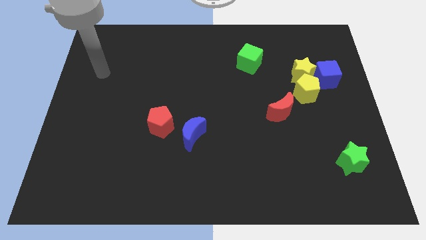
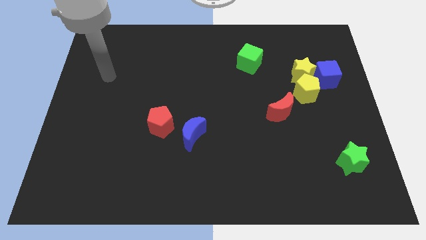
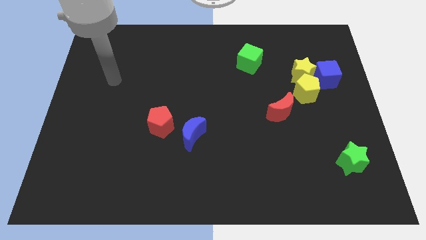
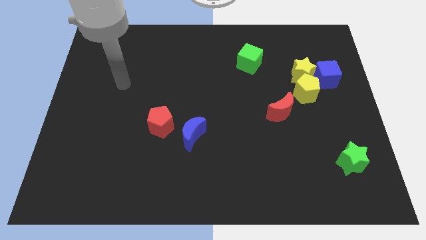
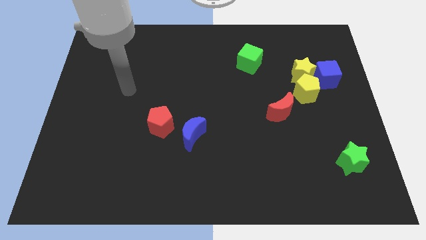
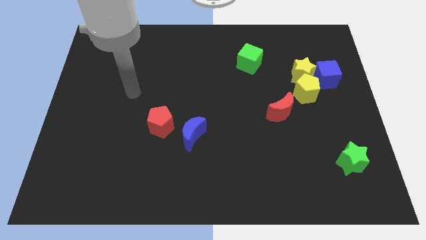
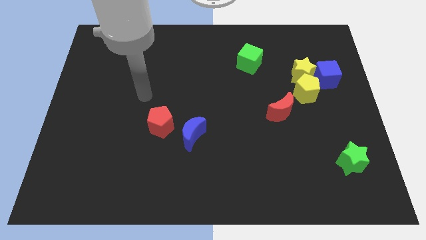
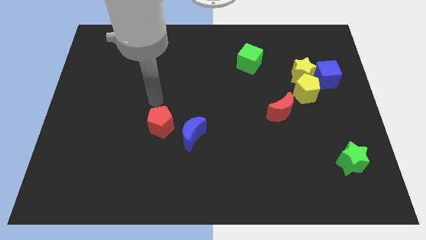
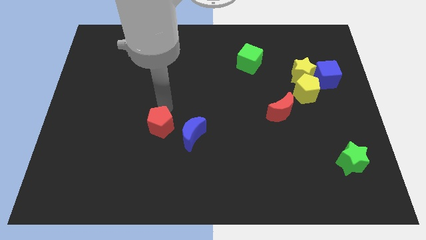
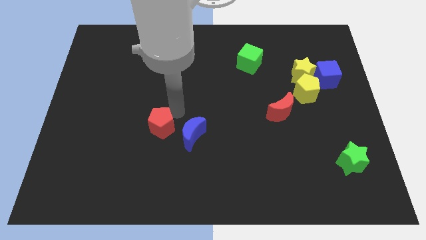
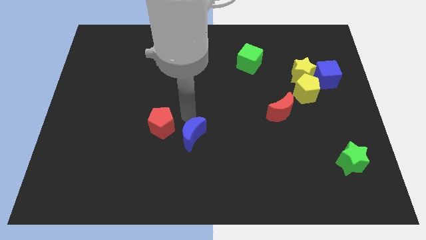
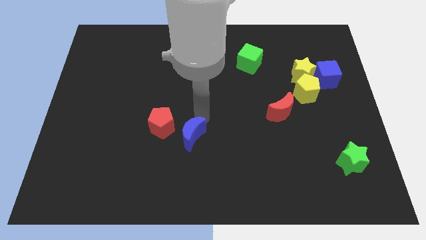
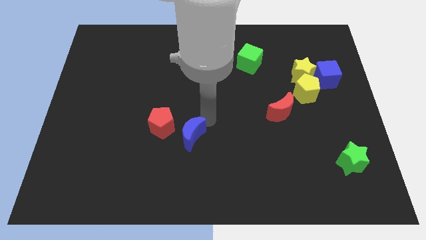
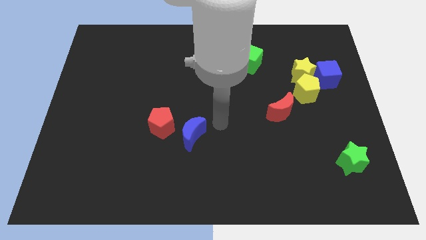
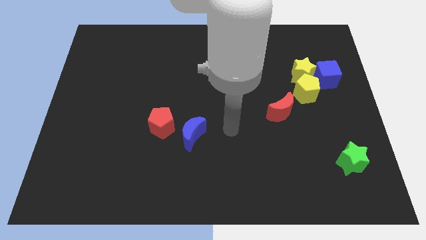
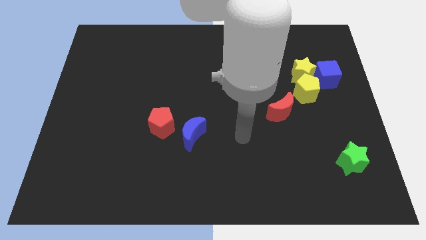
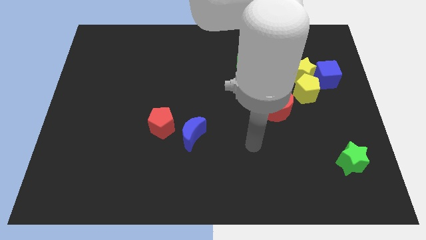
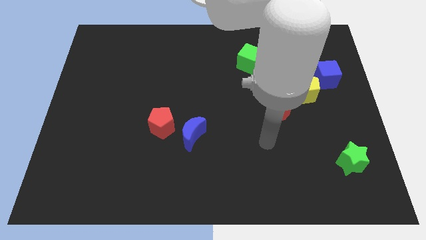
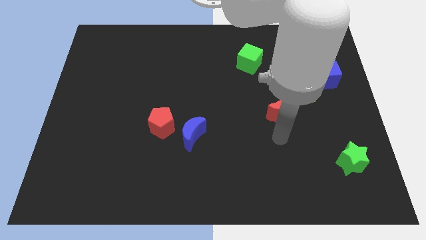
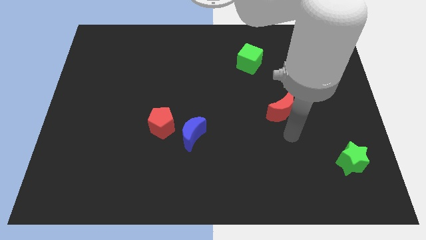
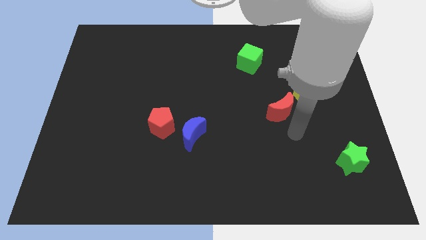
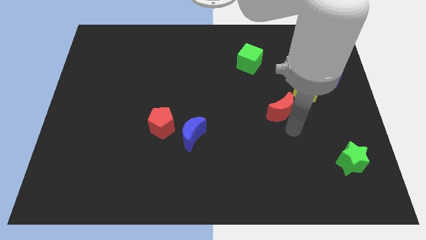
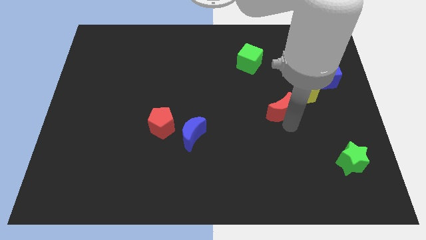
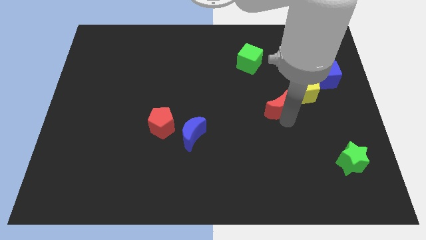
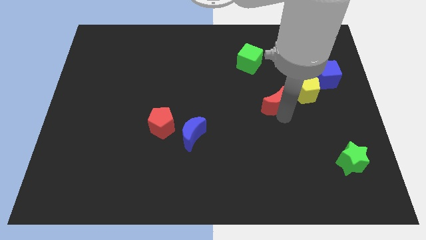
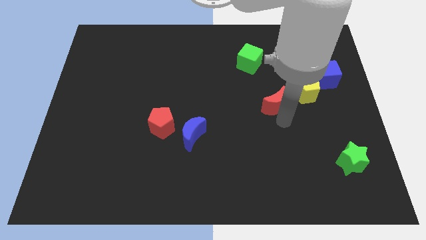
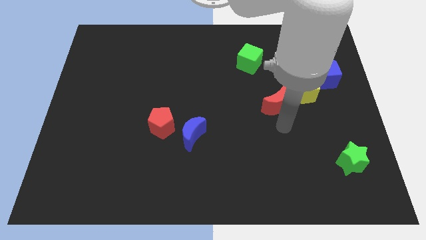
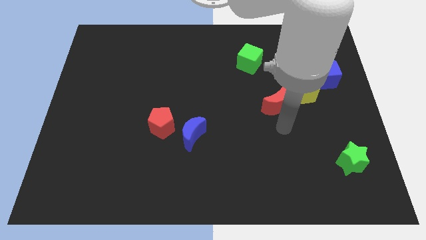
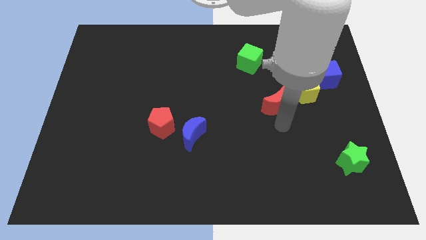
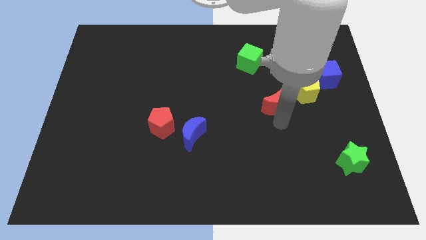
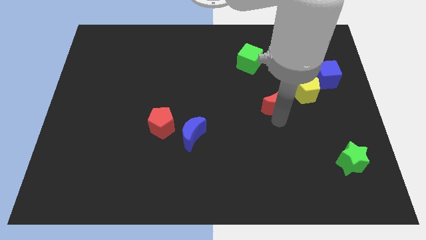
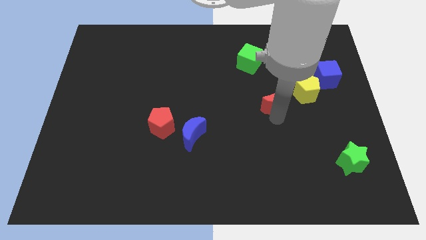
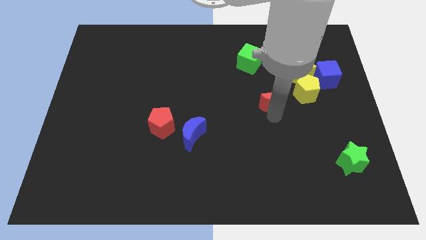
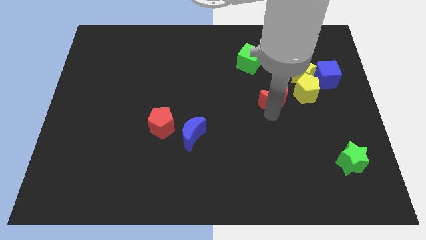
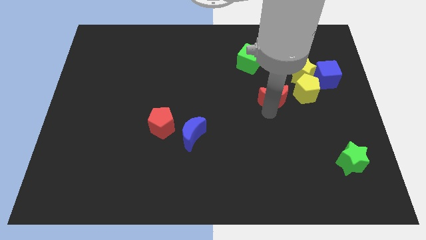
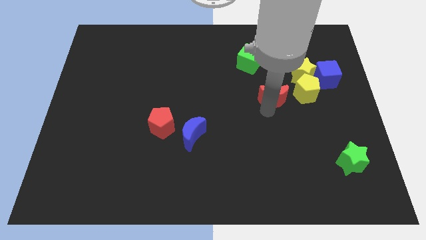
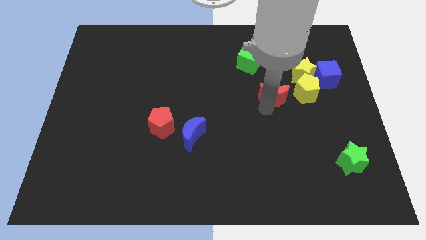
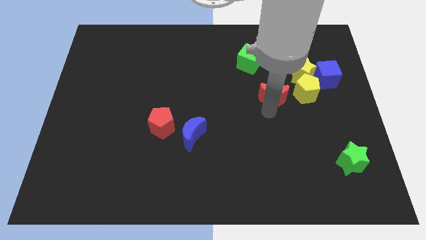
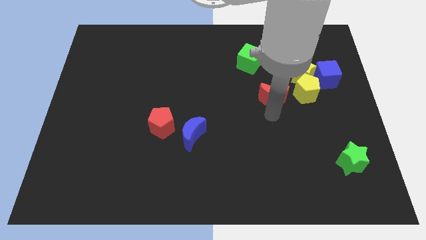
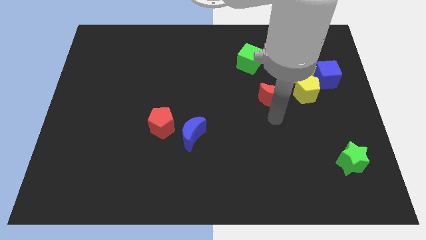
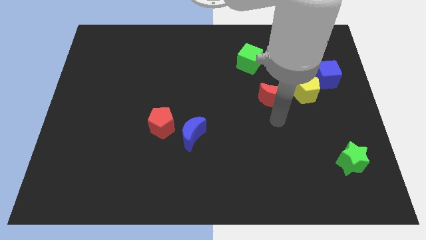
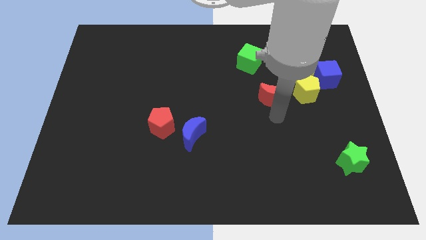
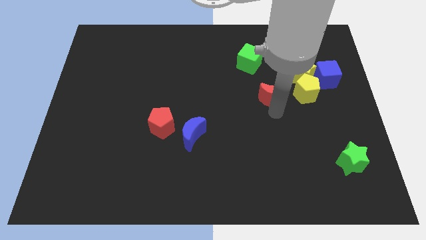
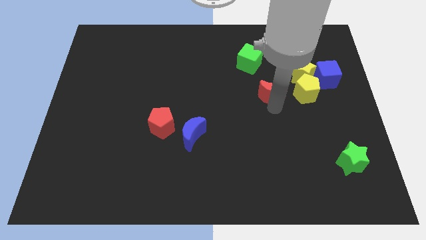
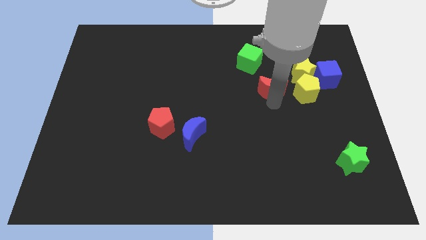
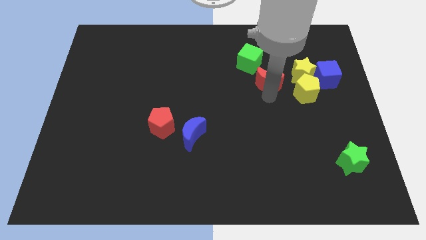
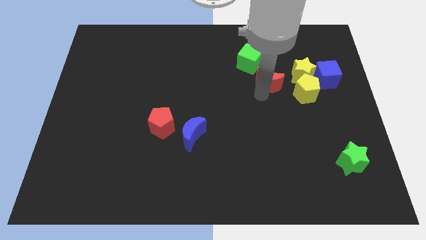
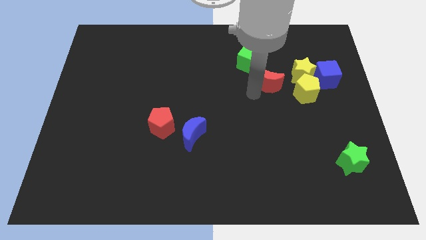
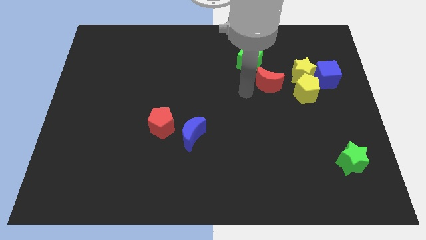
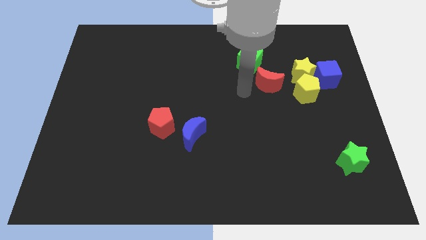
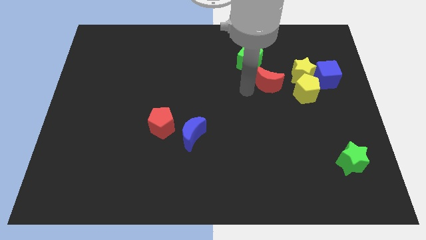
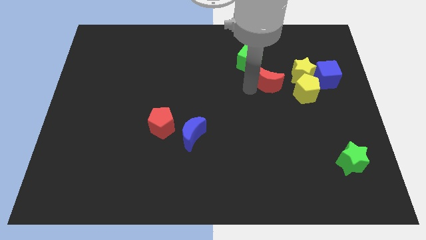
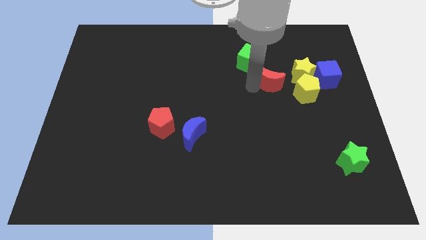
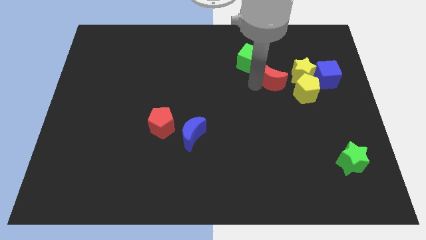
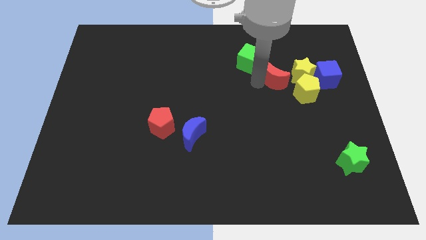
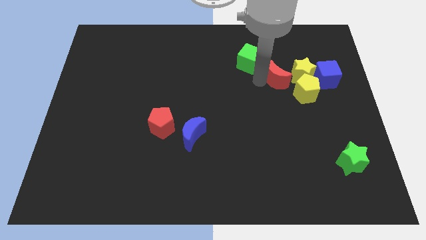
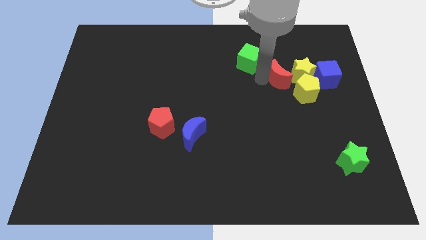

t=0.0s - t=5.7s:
push the red moon next to the yellow star

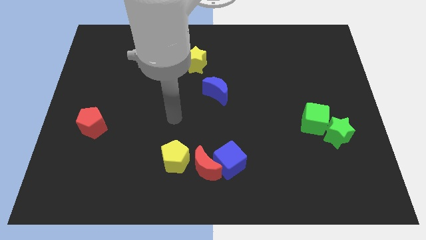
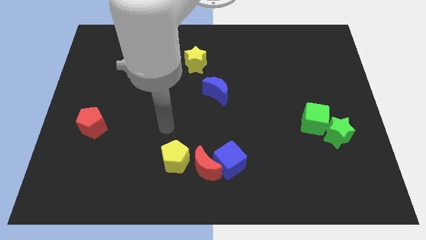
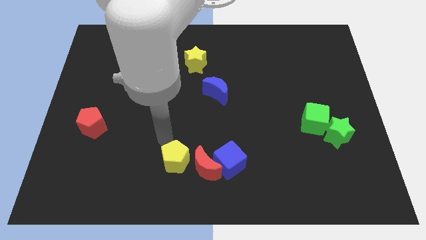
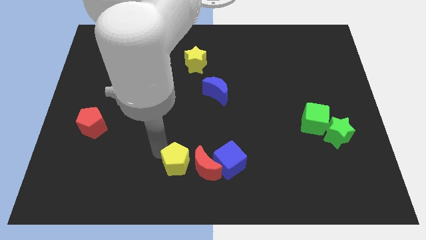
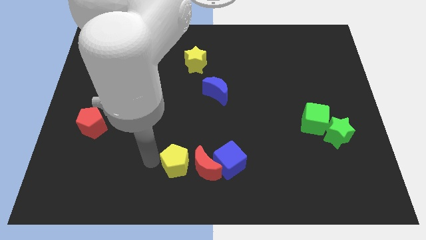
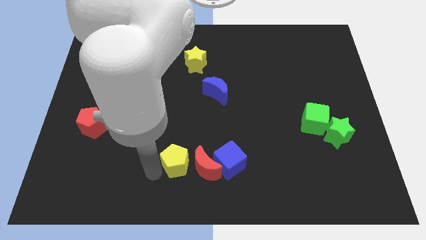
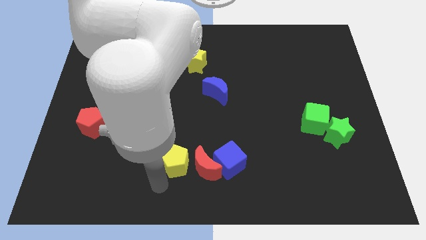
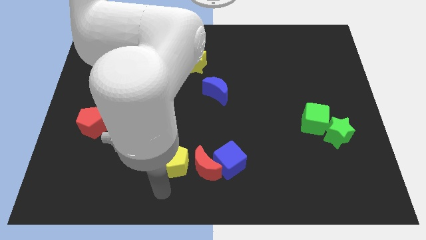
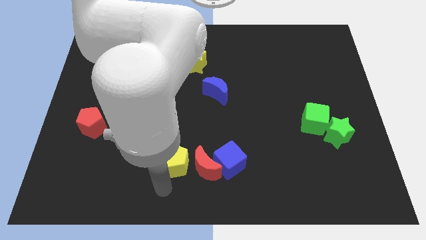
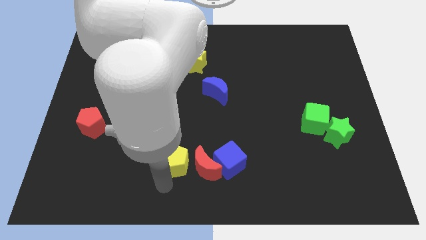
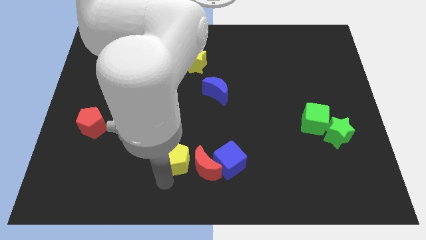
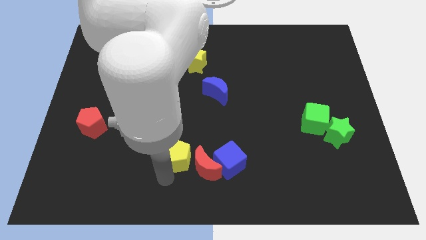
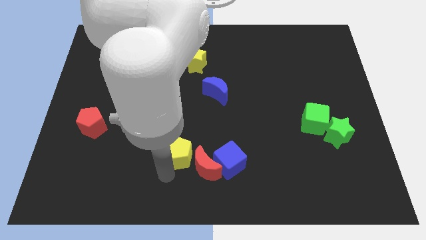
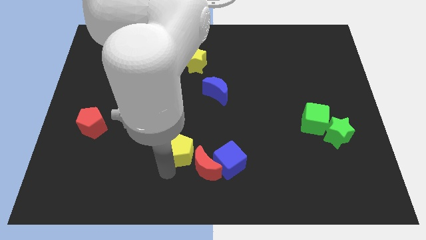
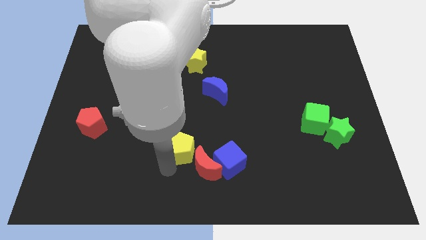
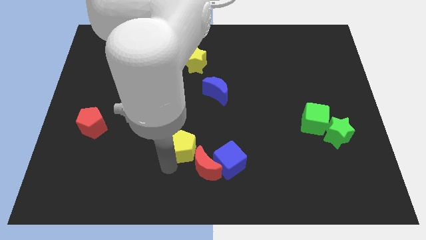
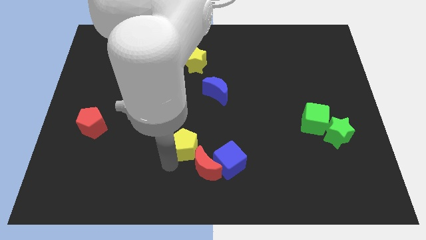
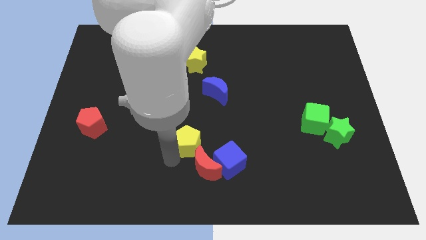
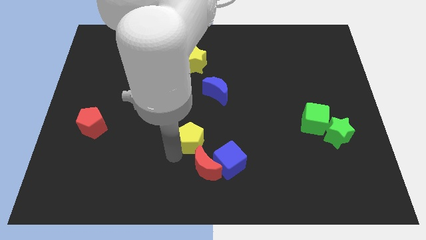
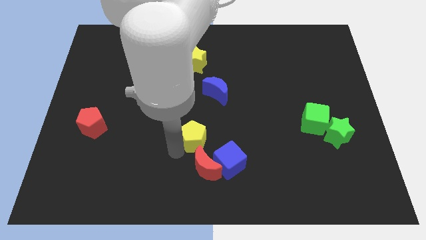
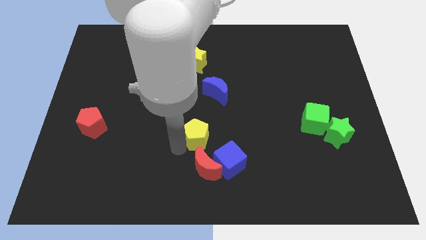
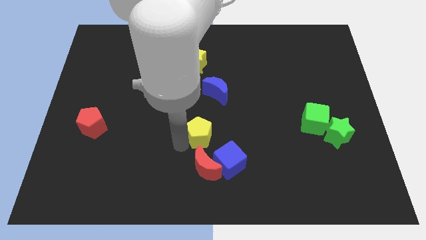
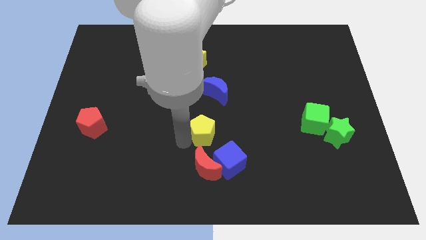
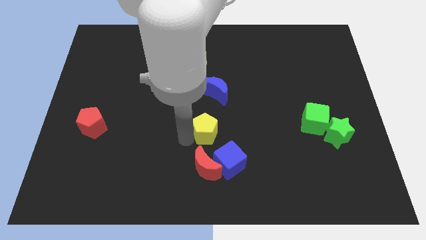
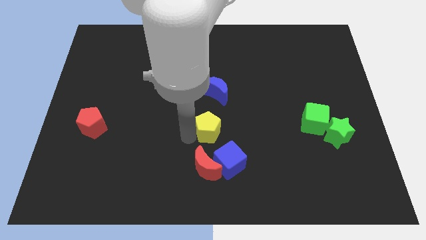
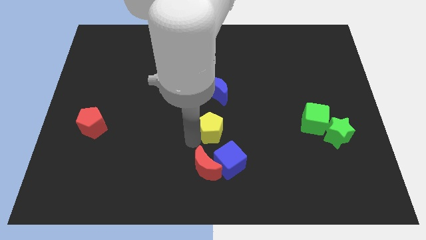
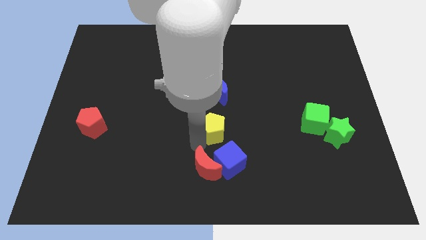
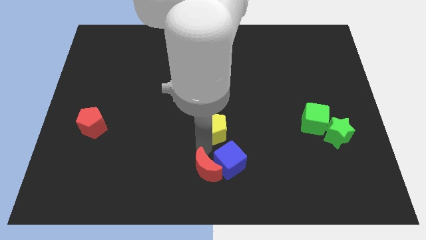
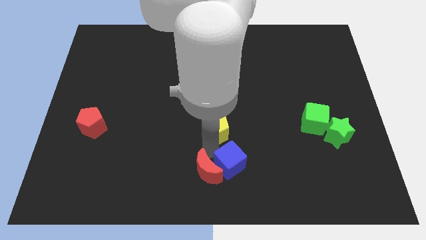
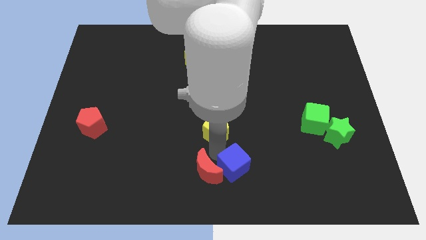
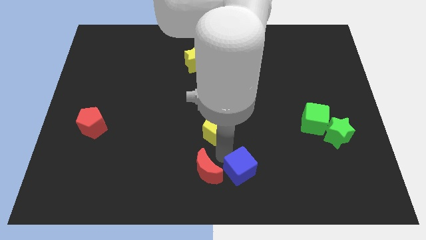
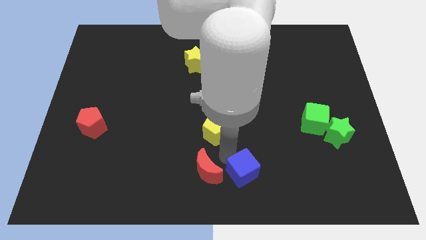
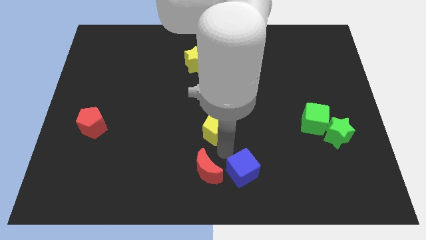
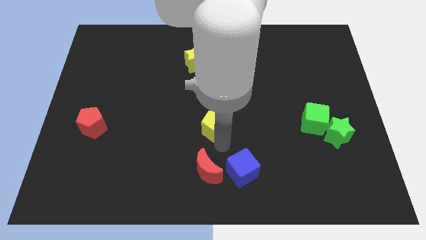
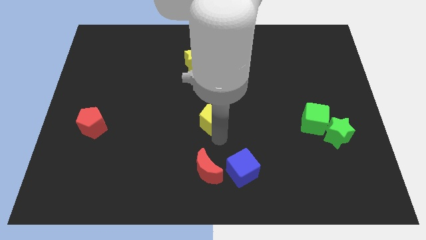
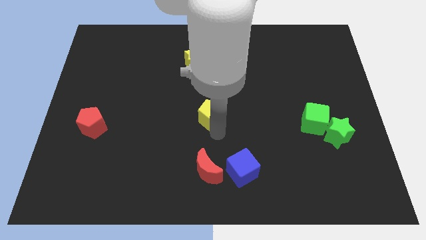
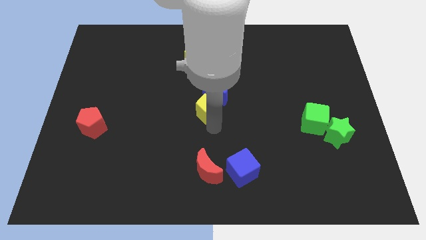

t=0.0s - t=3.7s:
push the yellow pentagon towards the blue moon
